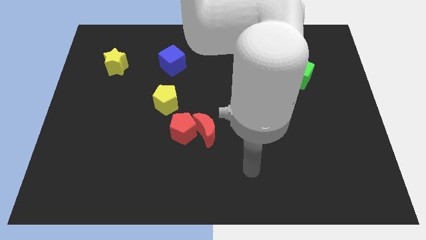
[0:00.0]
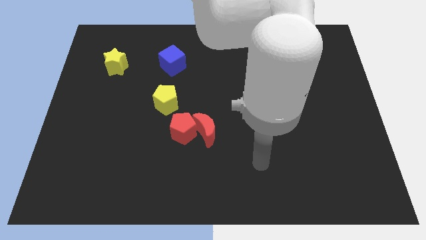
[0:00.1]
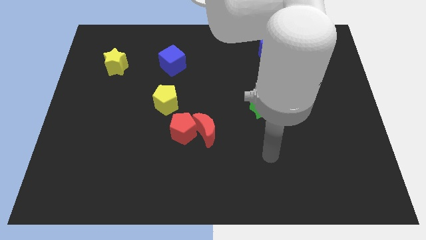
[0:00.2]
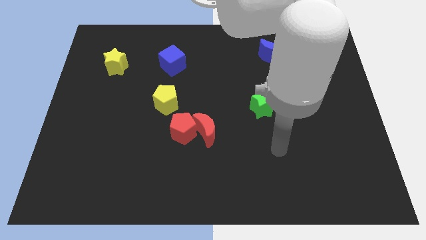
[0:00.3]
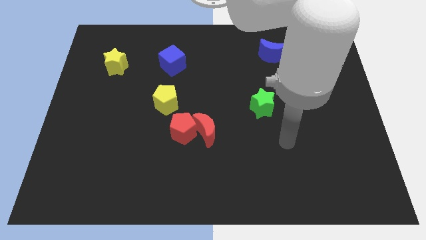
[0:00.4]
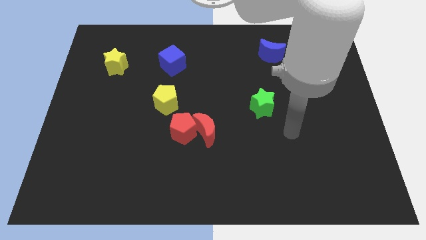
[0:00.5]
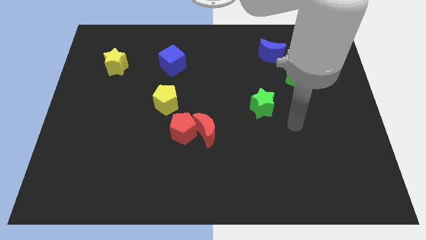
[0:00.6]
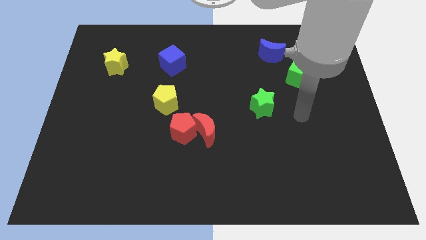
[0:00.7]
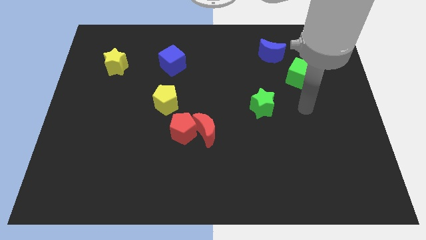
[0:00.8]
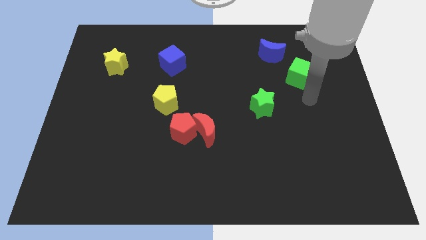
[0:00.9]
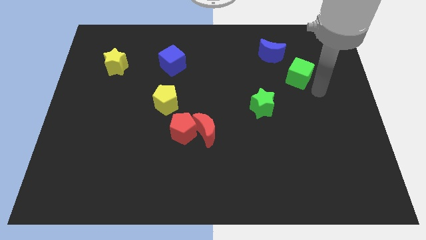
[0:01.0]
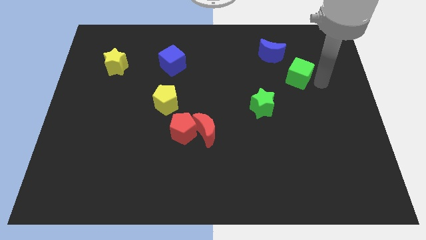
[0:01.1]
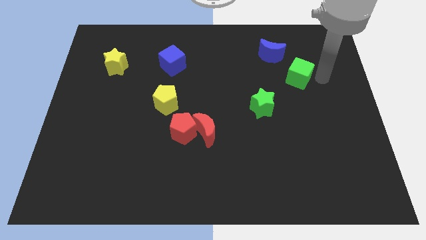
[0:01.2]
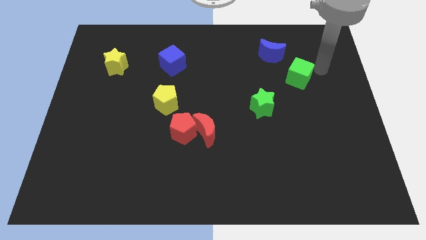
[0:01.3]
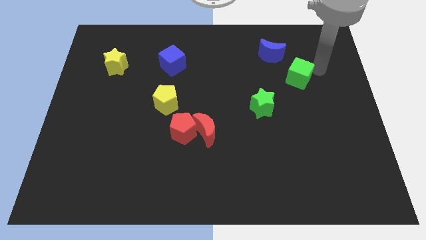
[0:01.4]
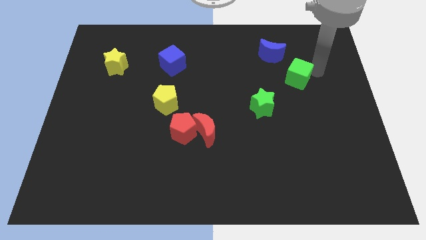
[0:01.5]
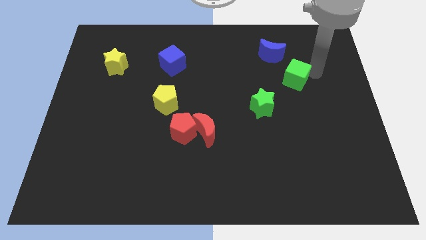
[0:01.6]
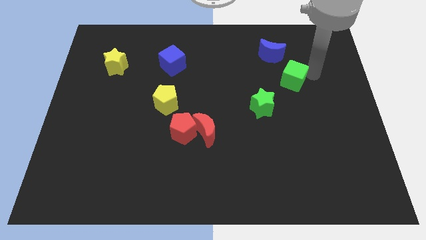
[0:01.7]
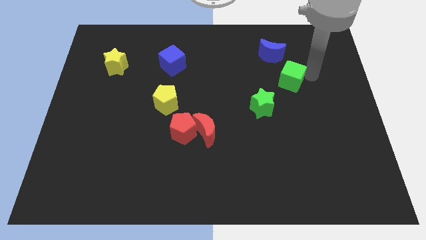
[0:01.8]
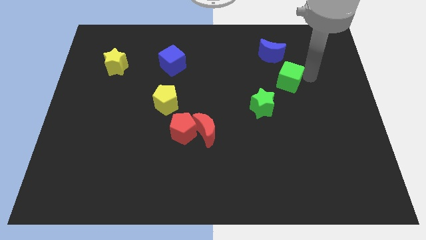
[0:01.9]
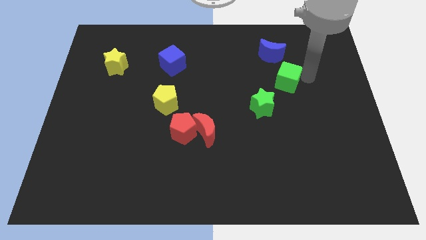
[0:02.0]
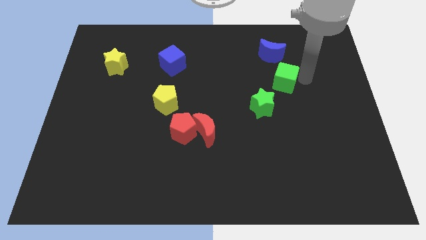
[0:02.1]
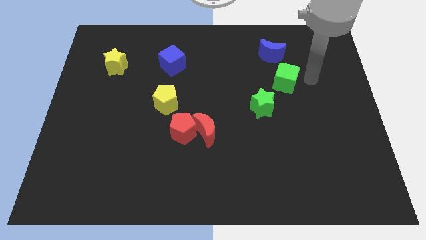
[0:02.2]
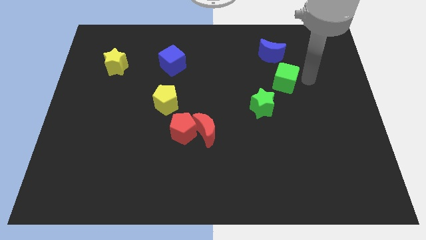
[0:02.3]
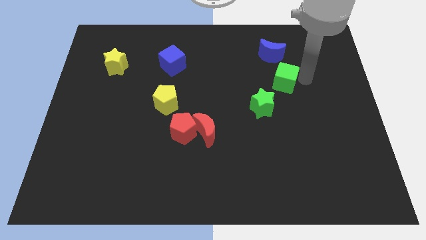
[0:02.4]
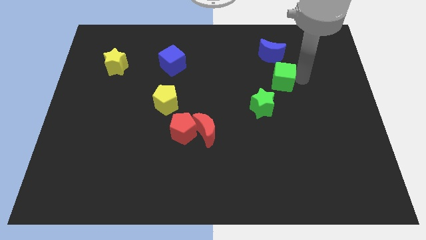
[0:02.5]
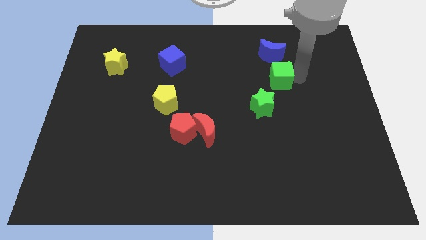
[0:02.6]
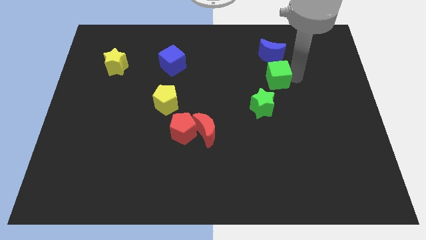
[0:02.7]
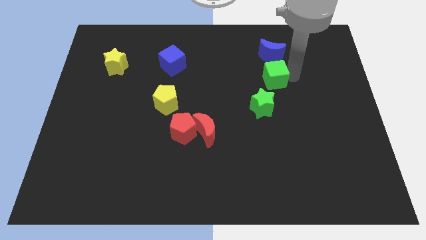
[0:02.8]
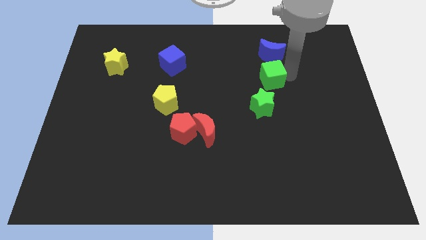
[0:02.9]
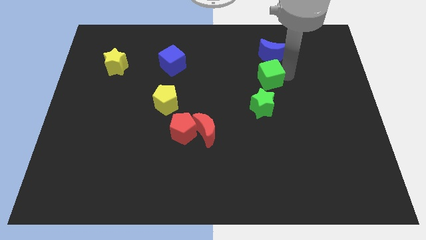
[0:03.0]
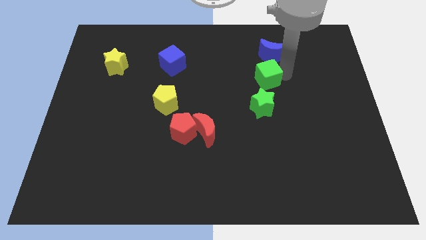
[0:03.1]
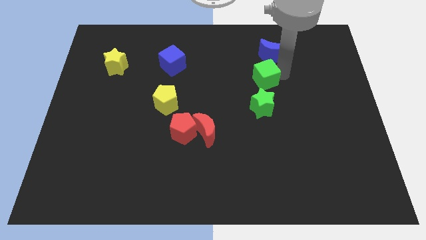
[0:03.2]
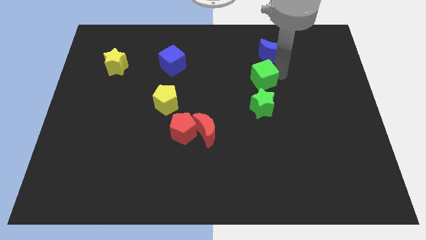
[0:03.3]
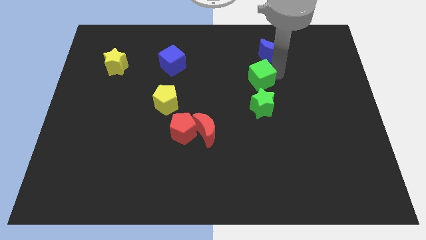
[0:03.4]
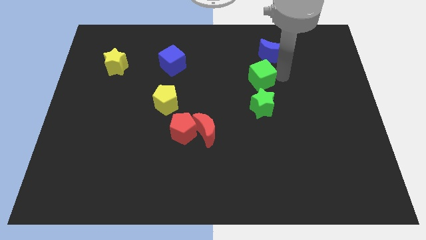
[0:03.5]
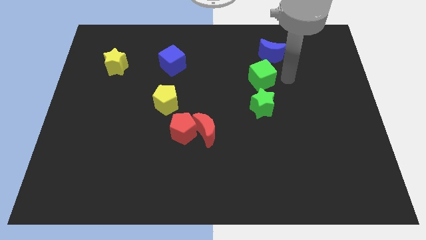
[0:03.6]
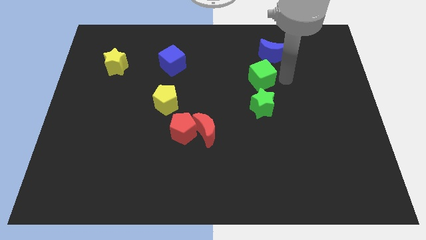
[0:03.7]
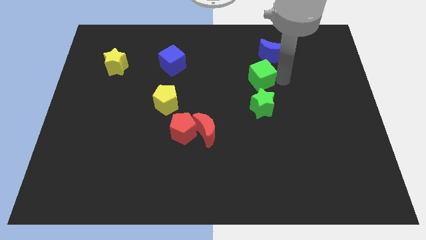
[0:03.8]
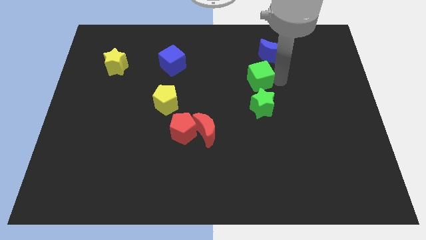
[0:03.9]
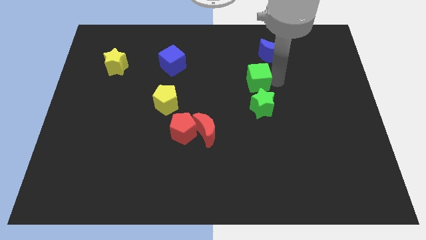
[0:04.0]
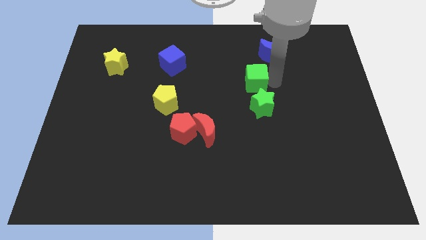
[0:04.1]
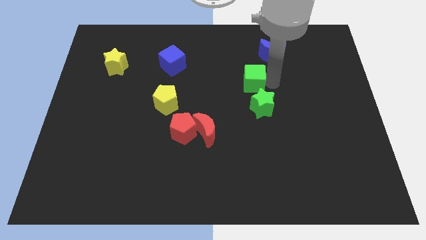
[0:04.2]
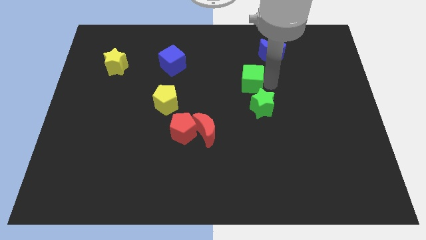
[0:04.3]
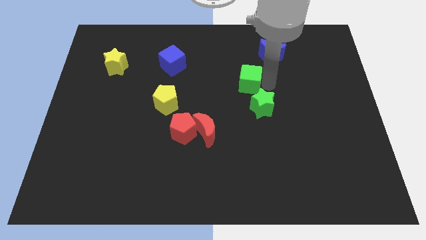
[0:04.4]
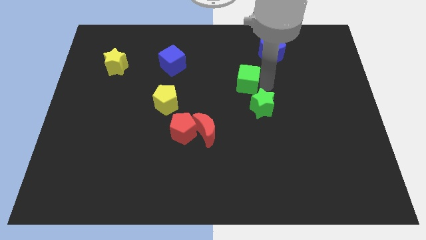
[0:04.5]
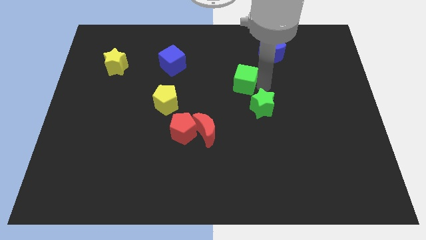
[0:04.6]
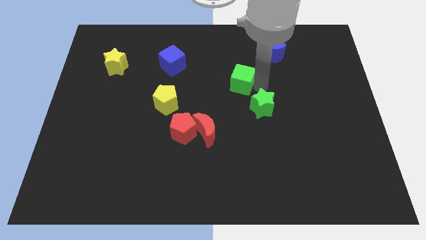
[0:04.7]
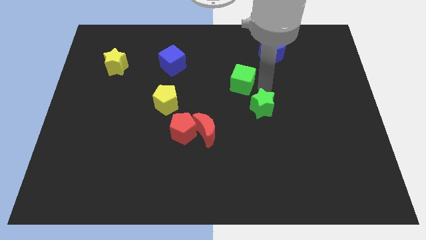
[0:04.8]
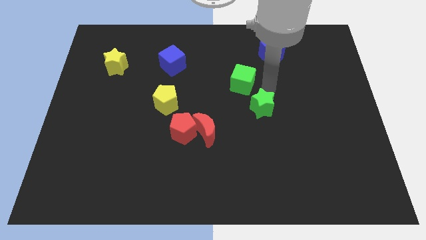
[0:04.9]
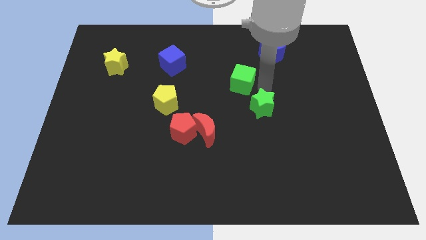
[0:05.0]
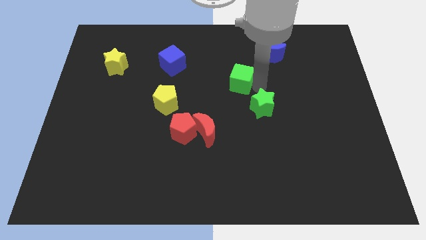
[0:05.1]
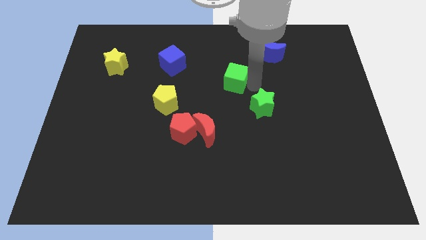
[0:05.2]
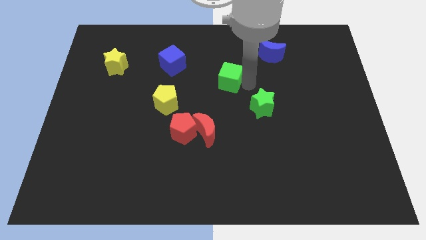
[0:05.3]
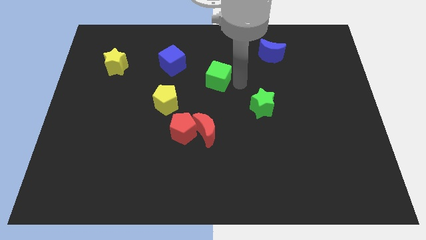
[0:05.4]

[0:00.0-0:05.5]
slide the green cube to the left

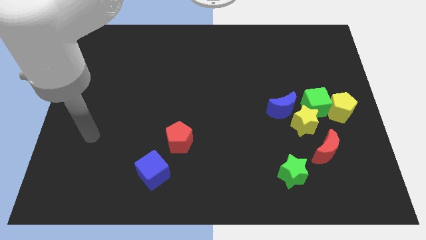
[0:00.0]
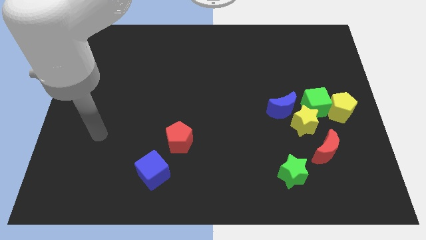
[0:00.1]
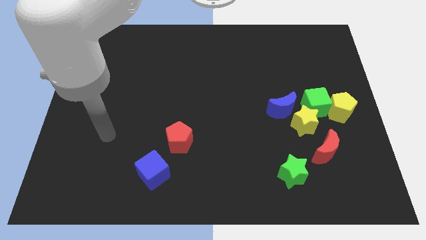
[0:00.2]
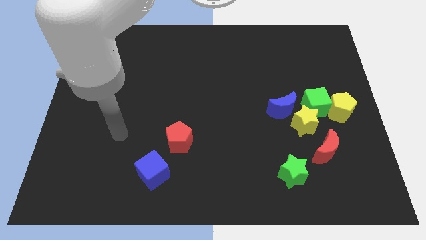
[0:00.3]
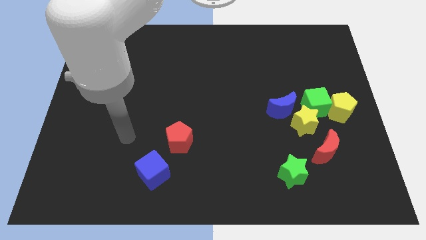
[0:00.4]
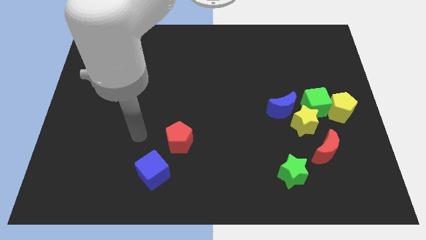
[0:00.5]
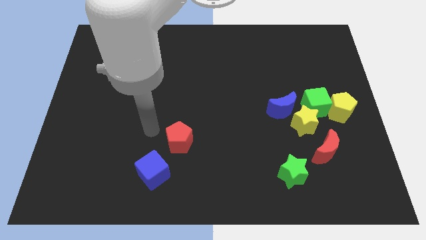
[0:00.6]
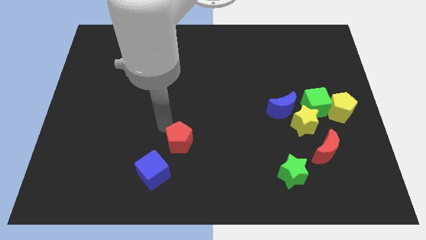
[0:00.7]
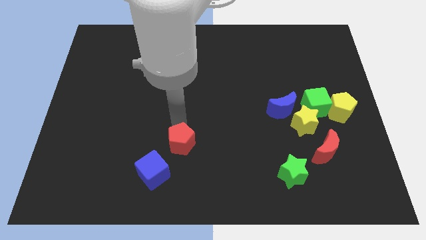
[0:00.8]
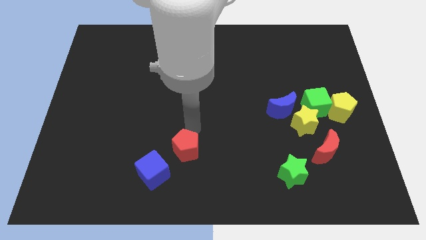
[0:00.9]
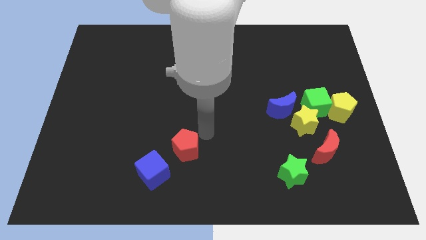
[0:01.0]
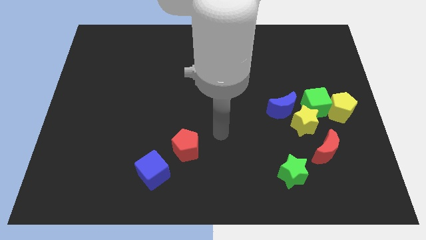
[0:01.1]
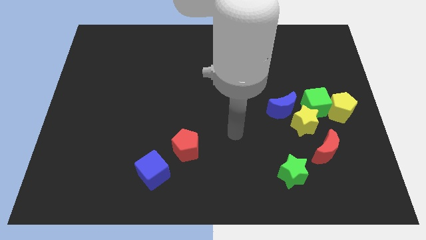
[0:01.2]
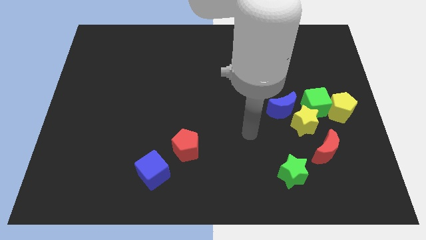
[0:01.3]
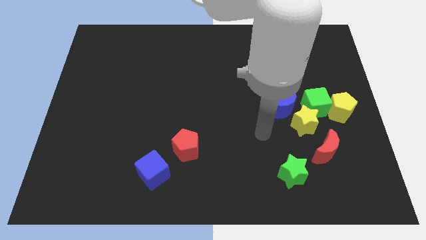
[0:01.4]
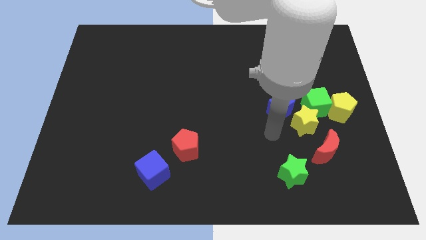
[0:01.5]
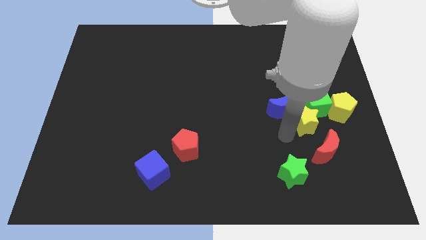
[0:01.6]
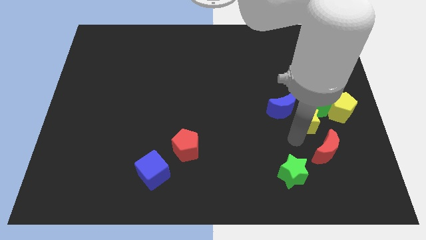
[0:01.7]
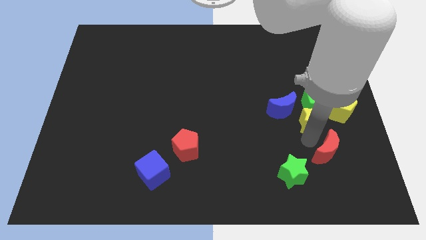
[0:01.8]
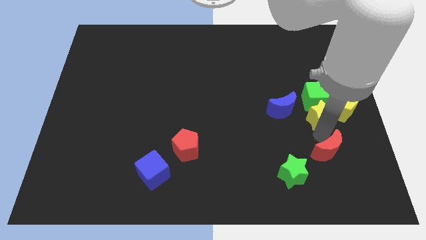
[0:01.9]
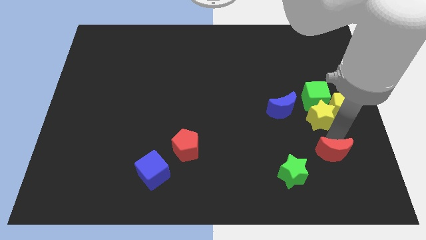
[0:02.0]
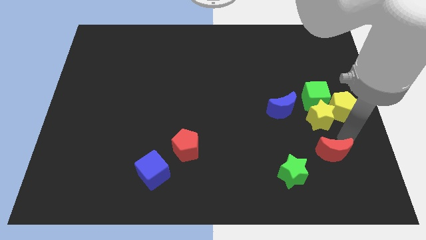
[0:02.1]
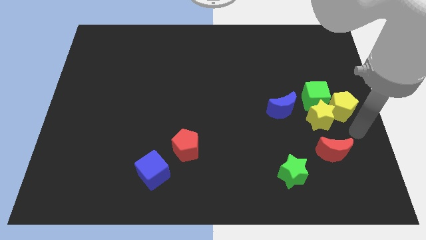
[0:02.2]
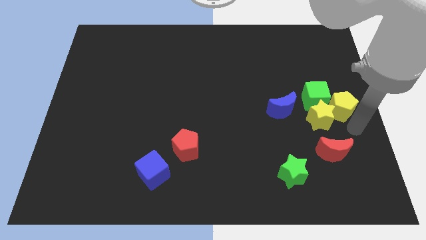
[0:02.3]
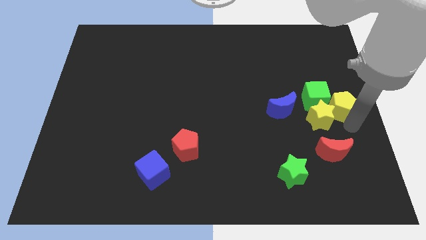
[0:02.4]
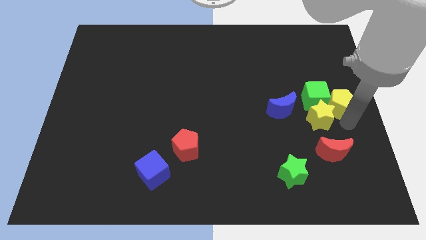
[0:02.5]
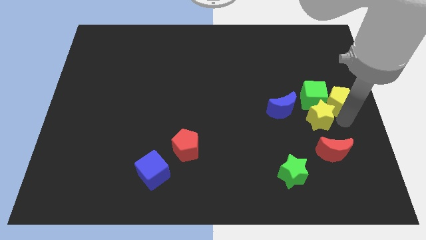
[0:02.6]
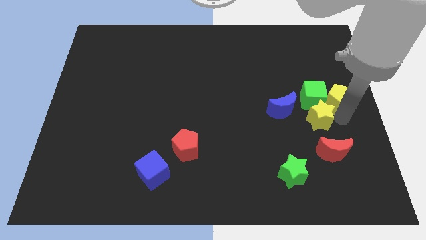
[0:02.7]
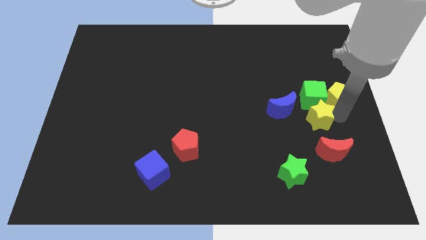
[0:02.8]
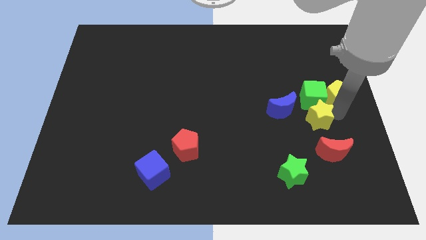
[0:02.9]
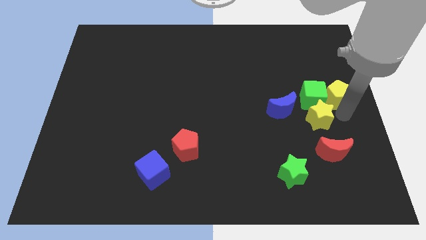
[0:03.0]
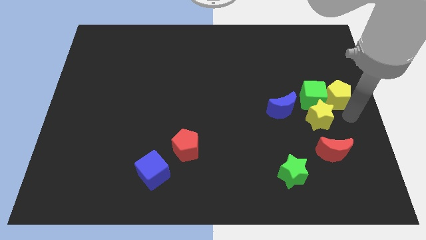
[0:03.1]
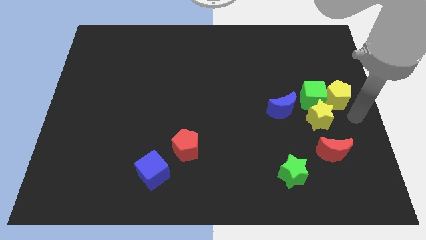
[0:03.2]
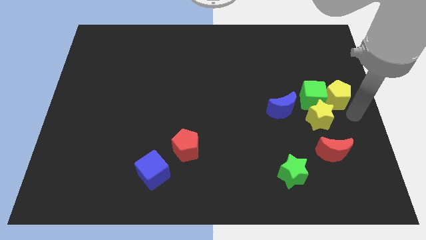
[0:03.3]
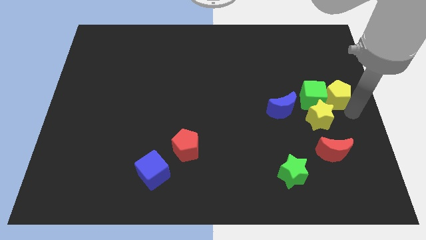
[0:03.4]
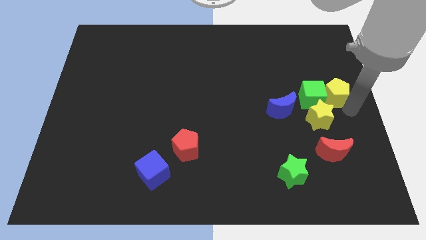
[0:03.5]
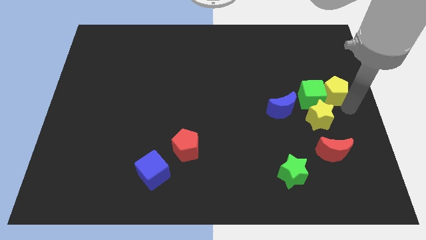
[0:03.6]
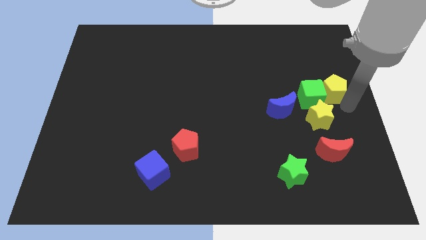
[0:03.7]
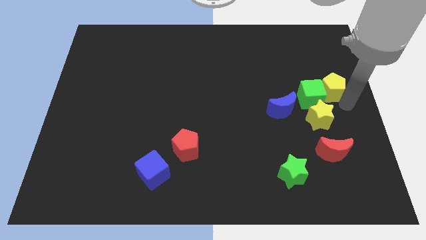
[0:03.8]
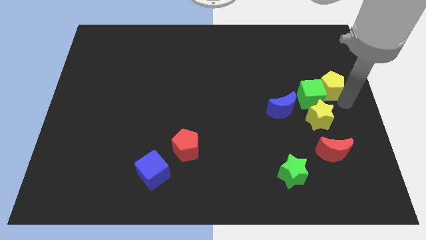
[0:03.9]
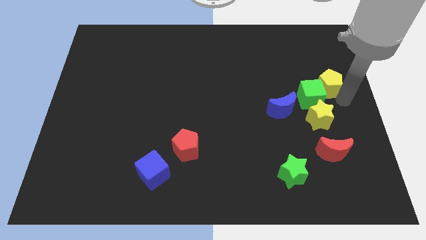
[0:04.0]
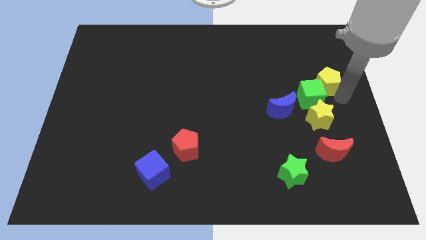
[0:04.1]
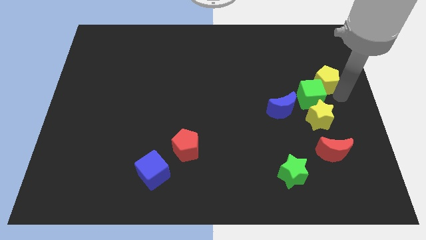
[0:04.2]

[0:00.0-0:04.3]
move the yellow pentagon up and left slightly
